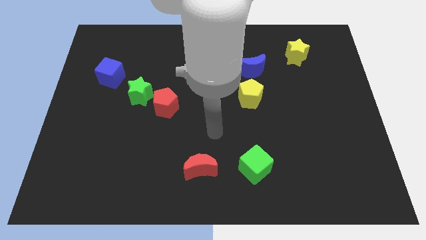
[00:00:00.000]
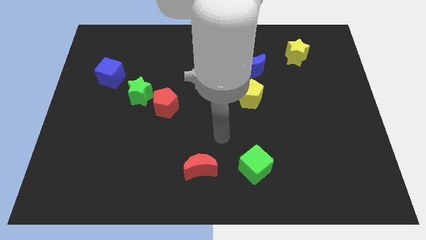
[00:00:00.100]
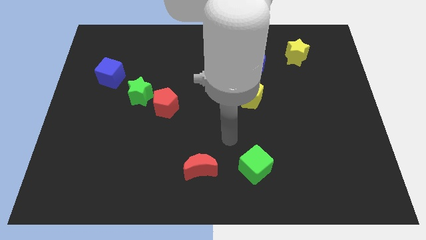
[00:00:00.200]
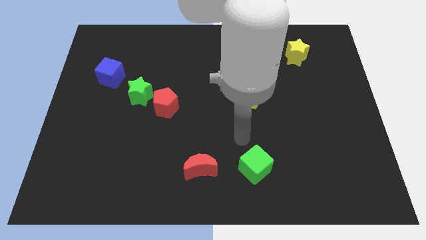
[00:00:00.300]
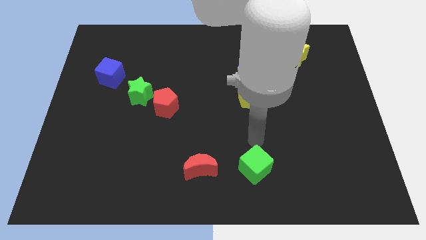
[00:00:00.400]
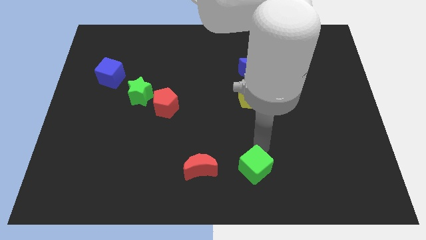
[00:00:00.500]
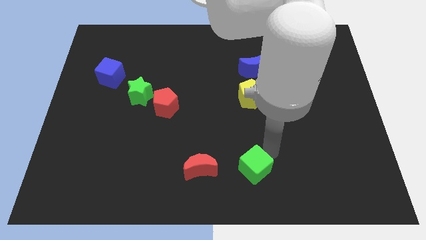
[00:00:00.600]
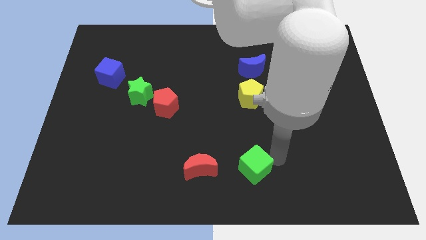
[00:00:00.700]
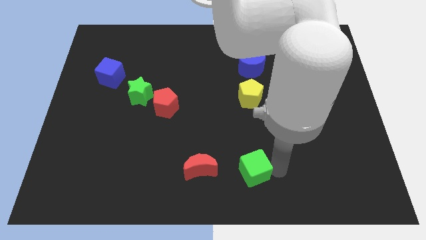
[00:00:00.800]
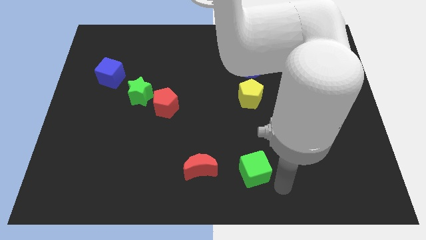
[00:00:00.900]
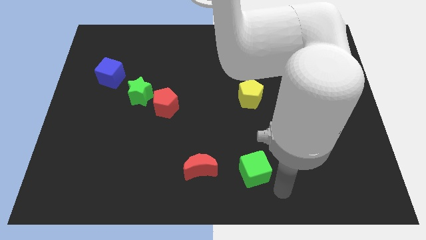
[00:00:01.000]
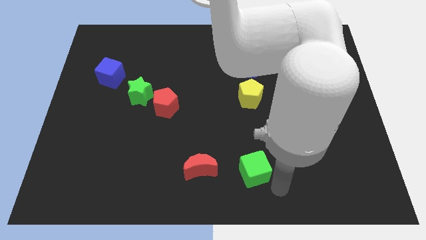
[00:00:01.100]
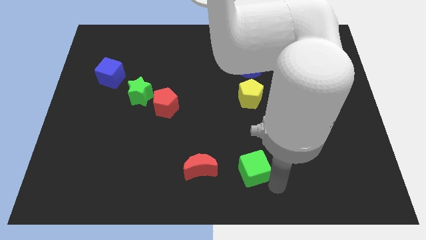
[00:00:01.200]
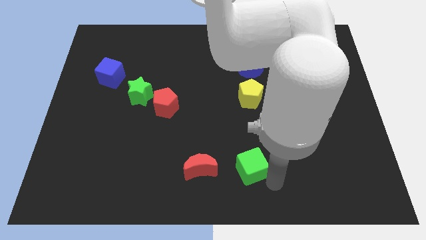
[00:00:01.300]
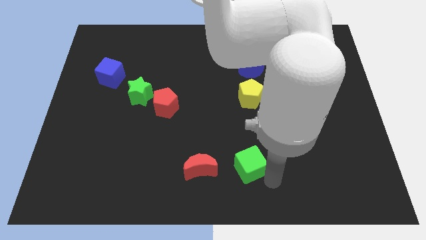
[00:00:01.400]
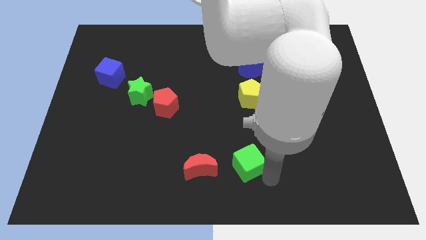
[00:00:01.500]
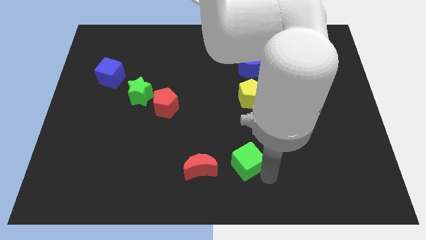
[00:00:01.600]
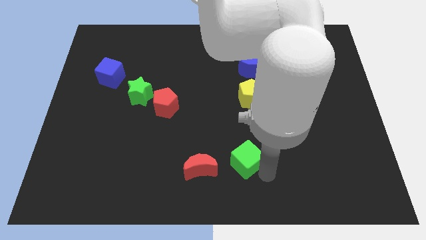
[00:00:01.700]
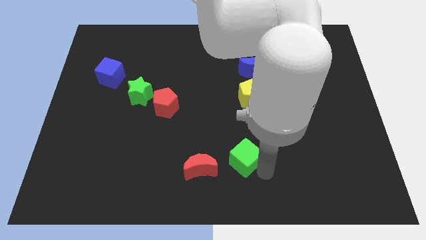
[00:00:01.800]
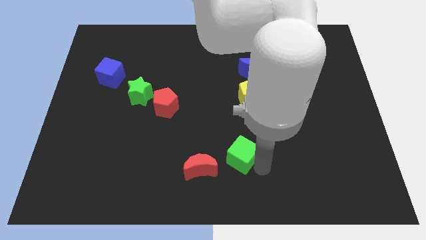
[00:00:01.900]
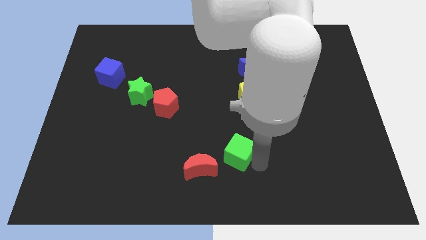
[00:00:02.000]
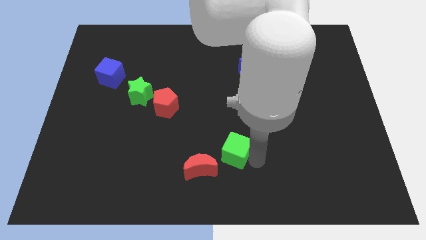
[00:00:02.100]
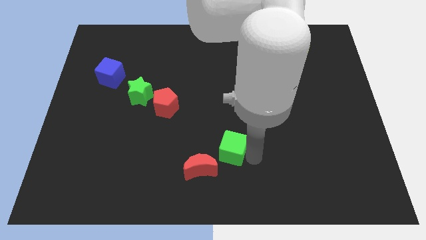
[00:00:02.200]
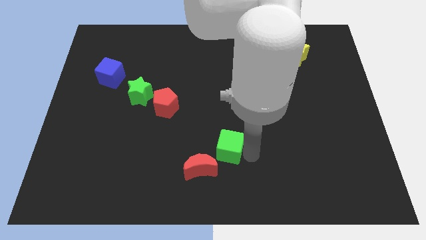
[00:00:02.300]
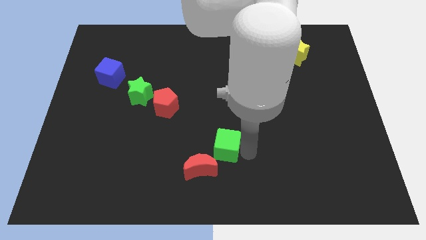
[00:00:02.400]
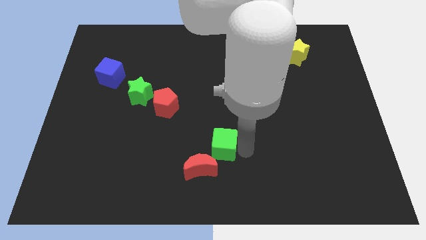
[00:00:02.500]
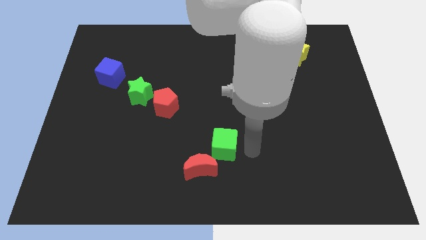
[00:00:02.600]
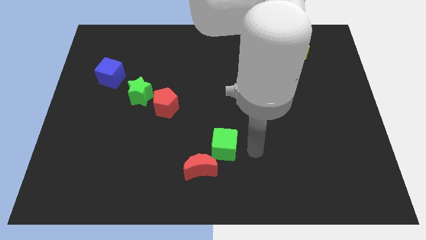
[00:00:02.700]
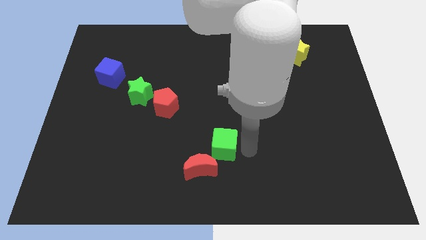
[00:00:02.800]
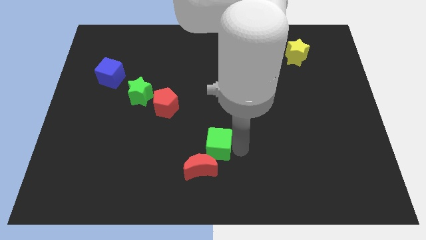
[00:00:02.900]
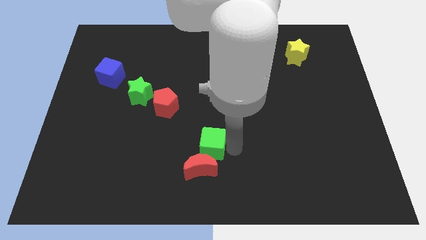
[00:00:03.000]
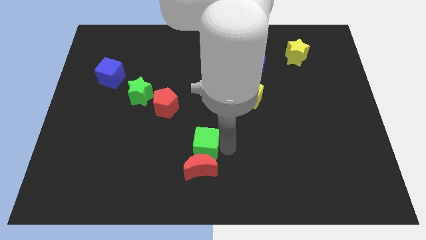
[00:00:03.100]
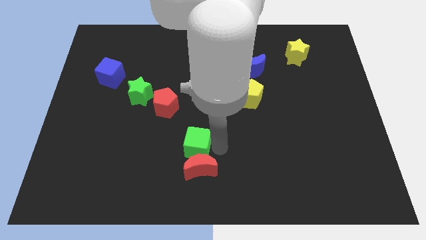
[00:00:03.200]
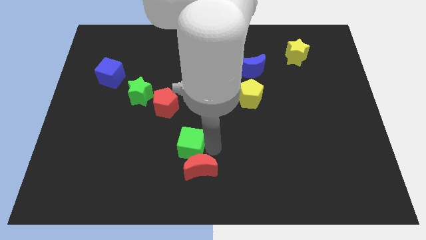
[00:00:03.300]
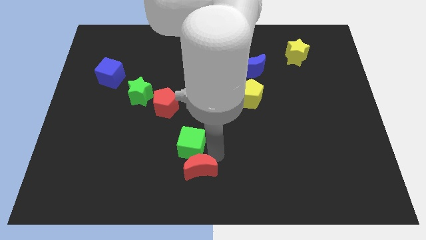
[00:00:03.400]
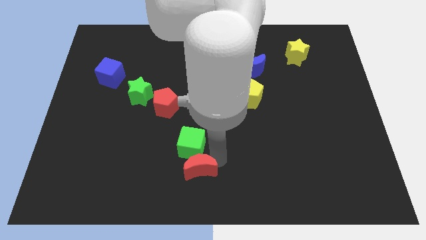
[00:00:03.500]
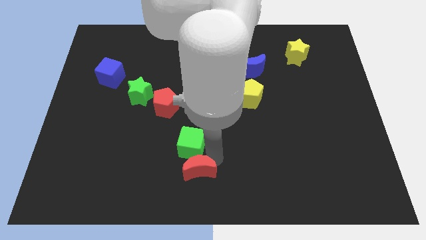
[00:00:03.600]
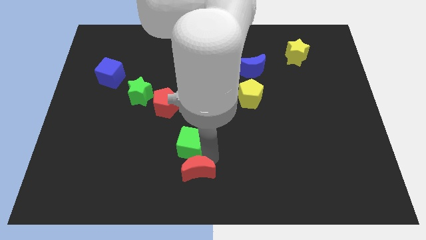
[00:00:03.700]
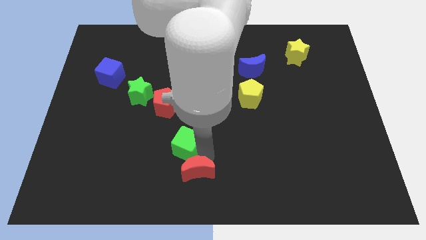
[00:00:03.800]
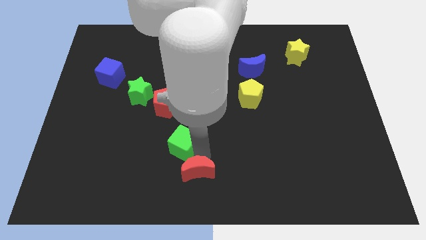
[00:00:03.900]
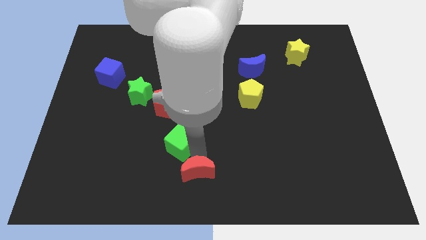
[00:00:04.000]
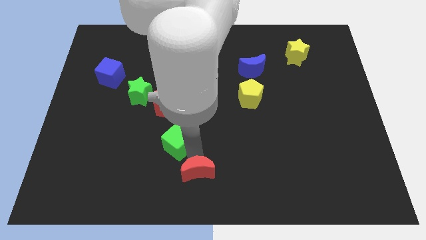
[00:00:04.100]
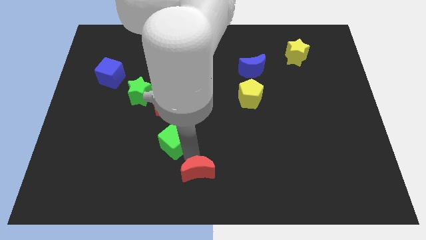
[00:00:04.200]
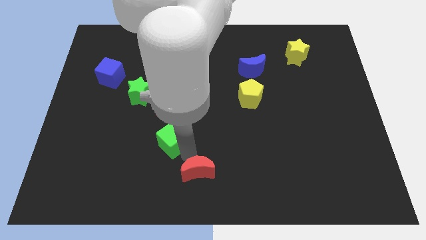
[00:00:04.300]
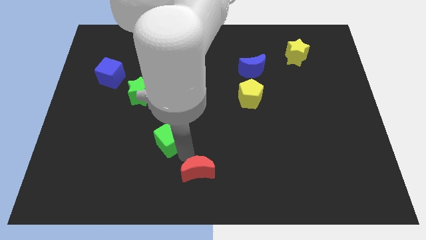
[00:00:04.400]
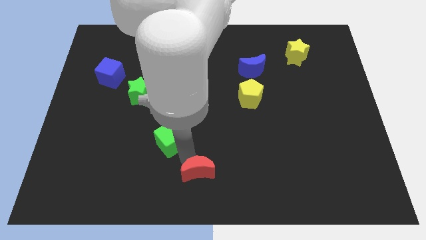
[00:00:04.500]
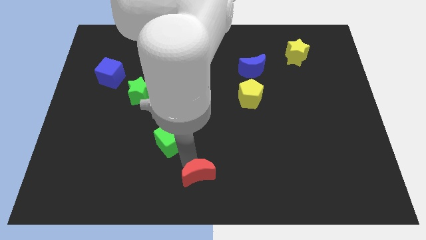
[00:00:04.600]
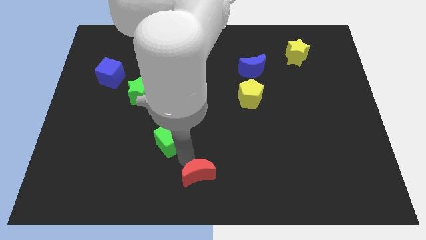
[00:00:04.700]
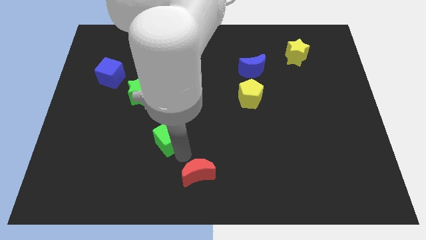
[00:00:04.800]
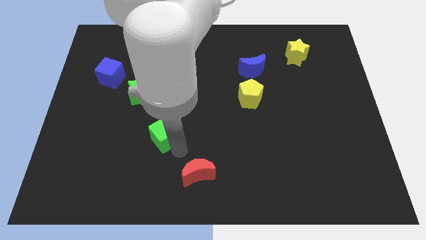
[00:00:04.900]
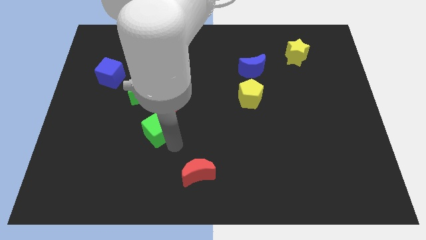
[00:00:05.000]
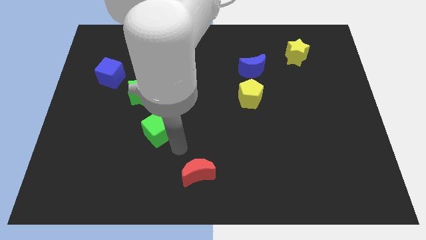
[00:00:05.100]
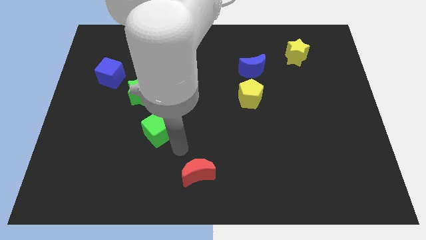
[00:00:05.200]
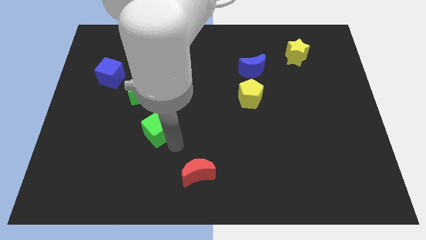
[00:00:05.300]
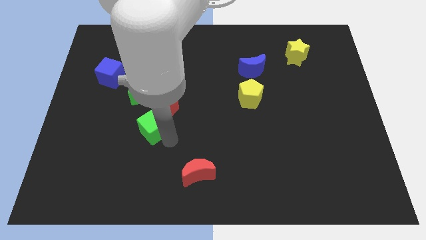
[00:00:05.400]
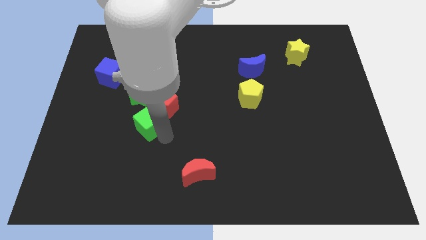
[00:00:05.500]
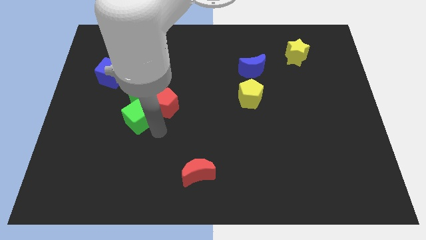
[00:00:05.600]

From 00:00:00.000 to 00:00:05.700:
push the green cube to the left side of the red pentagon

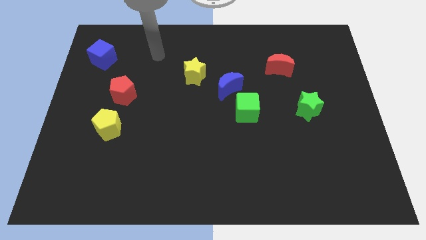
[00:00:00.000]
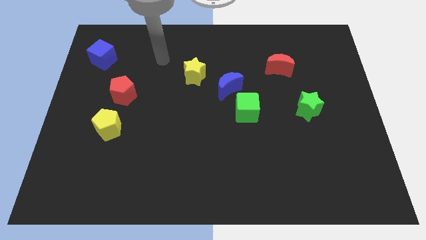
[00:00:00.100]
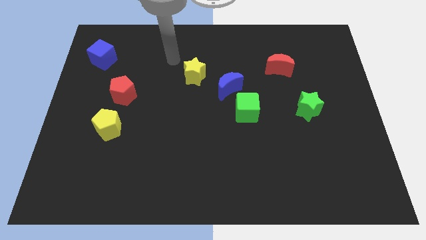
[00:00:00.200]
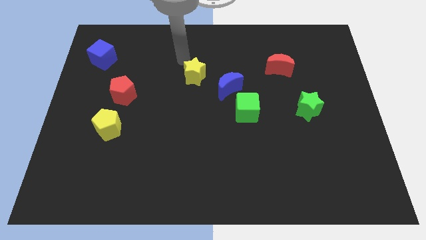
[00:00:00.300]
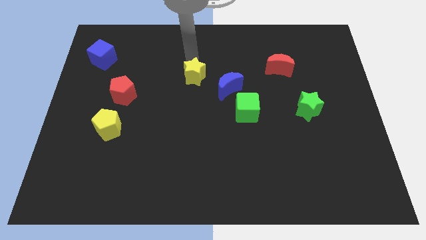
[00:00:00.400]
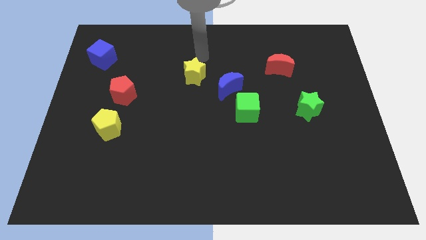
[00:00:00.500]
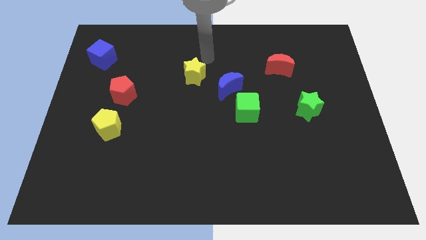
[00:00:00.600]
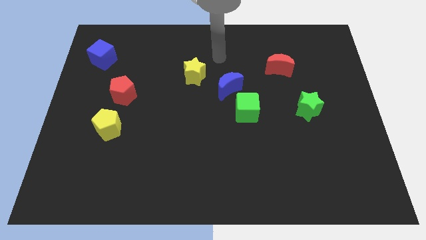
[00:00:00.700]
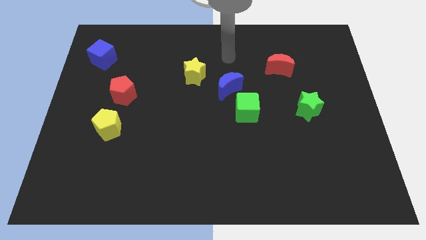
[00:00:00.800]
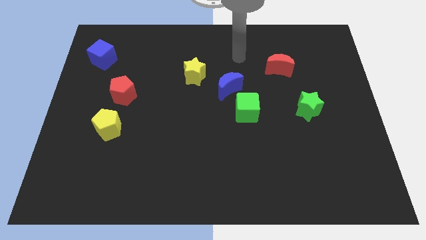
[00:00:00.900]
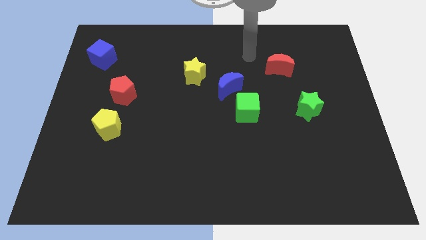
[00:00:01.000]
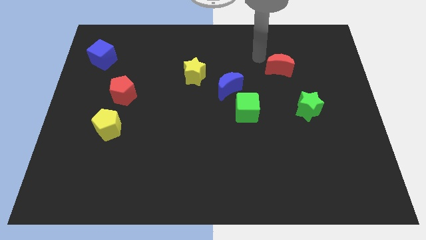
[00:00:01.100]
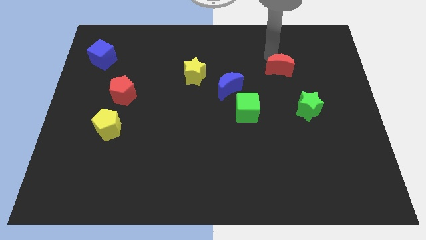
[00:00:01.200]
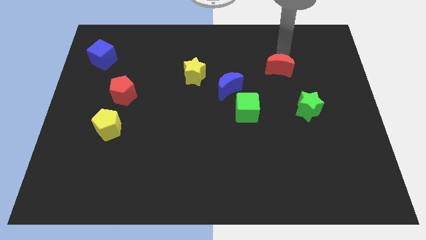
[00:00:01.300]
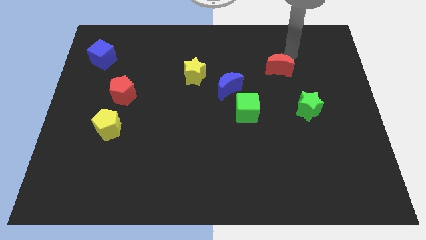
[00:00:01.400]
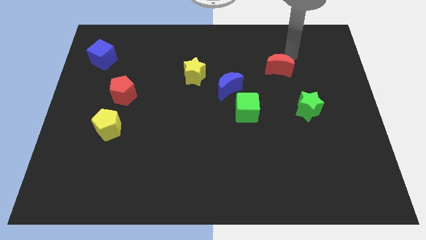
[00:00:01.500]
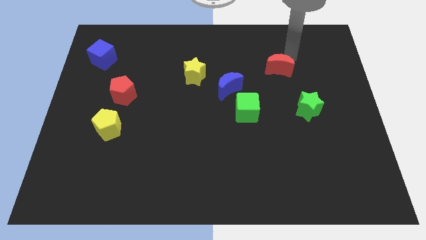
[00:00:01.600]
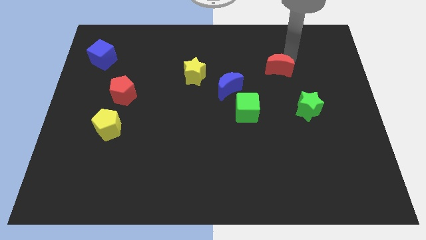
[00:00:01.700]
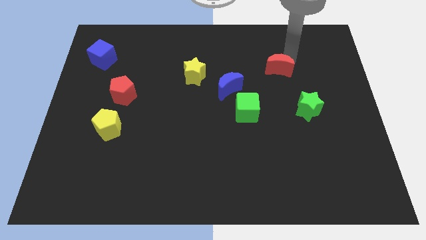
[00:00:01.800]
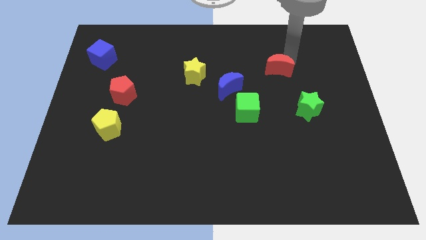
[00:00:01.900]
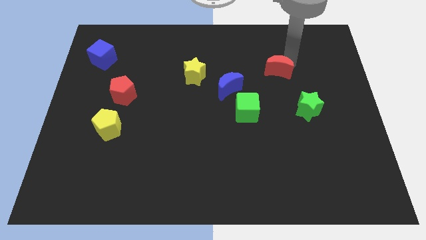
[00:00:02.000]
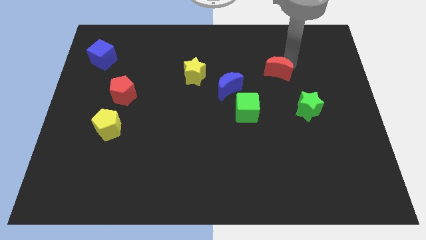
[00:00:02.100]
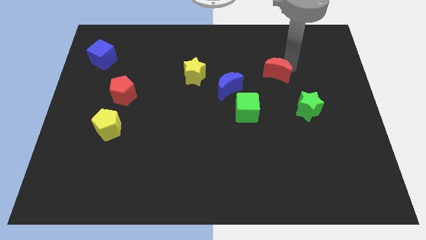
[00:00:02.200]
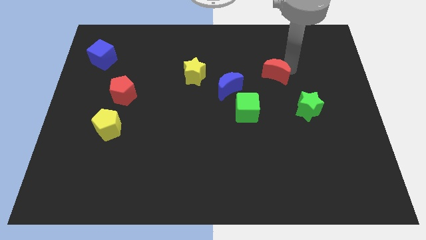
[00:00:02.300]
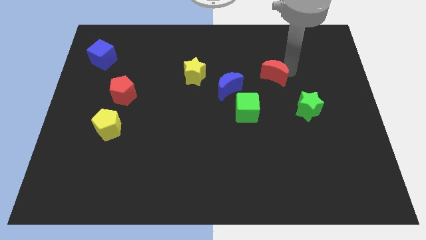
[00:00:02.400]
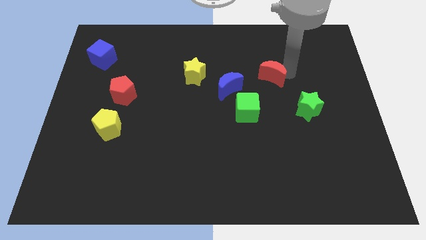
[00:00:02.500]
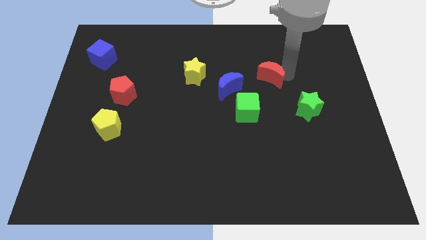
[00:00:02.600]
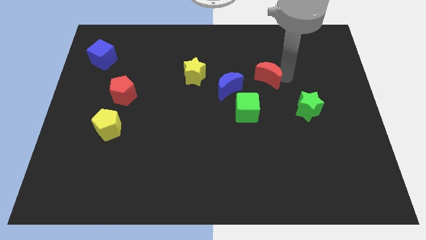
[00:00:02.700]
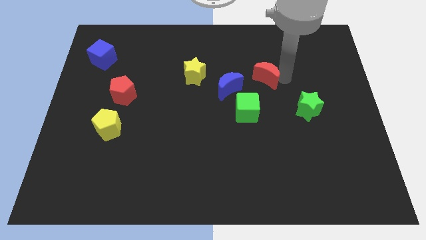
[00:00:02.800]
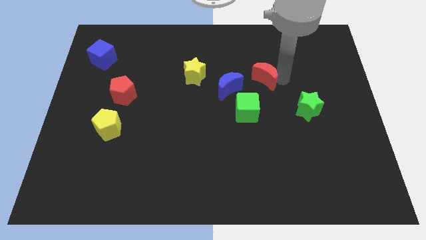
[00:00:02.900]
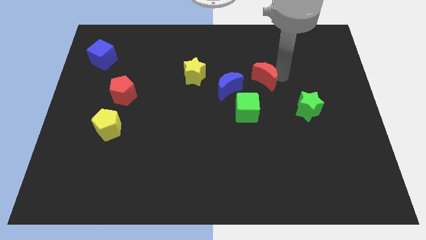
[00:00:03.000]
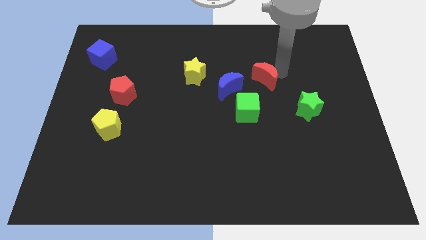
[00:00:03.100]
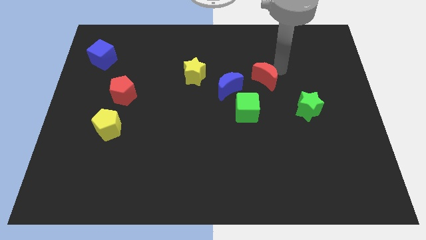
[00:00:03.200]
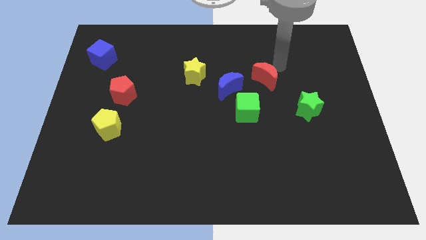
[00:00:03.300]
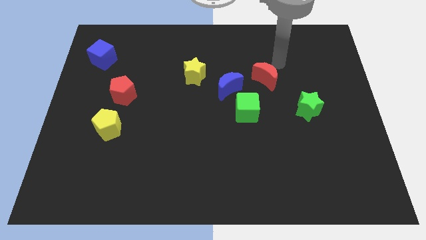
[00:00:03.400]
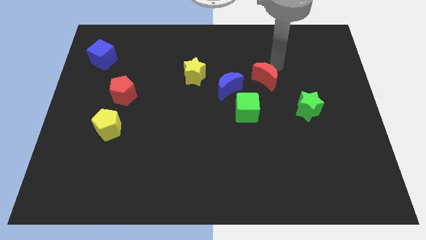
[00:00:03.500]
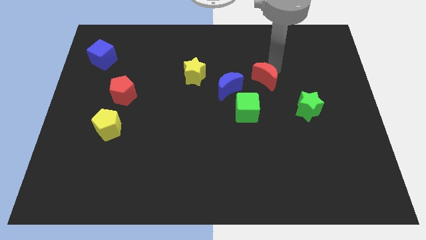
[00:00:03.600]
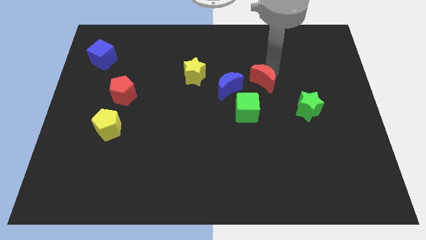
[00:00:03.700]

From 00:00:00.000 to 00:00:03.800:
put the red moon to the top side of the green cube
